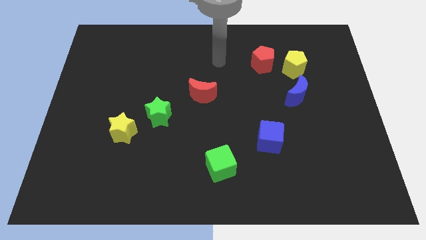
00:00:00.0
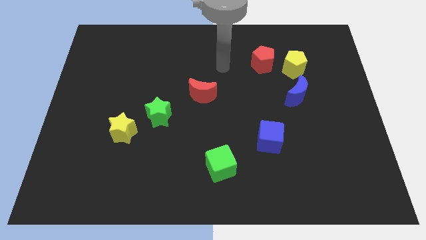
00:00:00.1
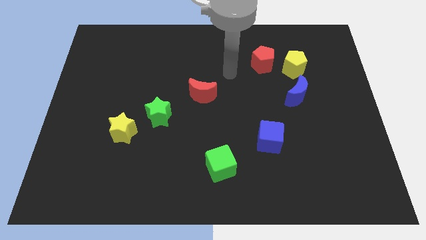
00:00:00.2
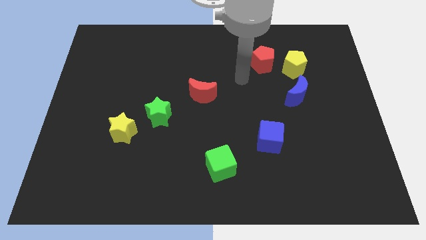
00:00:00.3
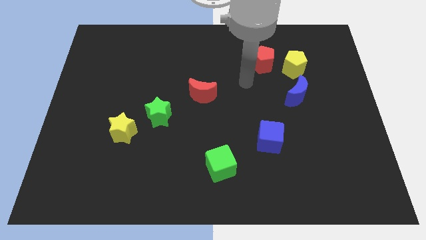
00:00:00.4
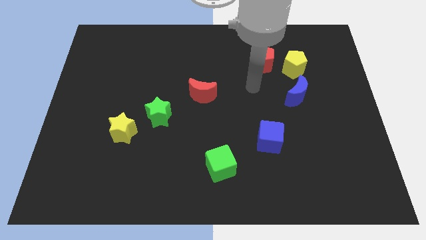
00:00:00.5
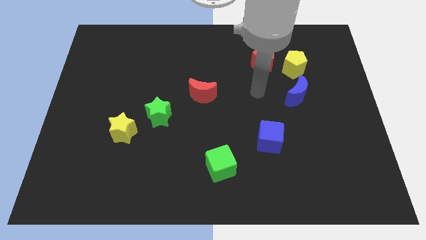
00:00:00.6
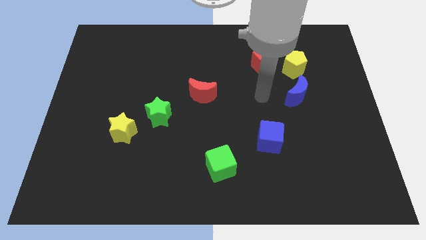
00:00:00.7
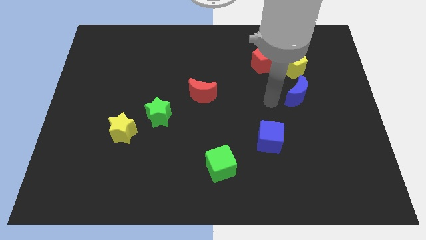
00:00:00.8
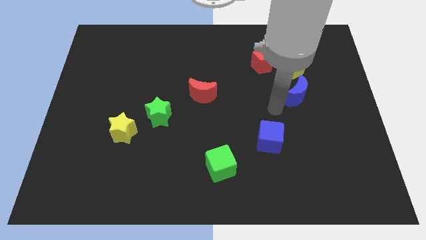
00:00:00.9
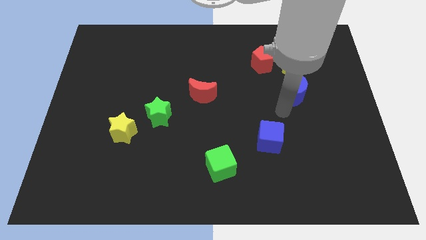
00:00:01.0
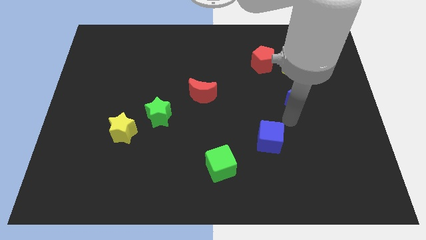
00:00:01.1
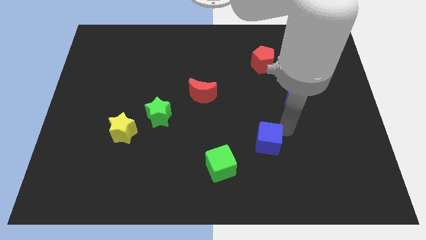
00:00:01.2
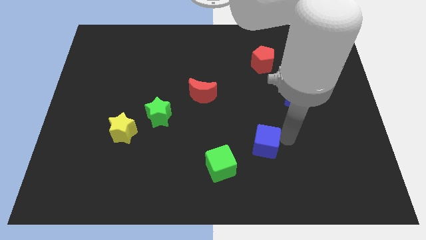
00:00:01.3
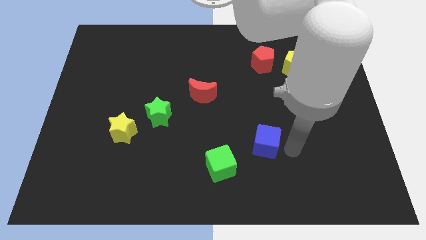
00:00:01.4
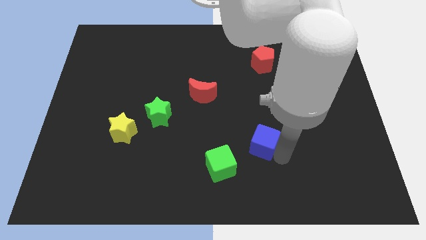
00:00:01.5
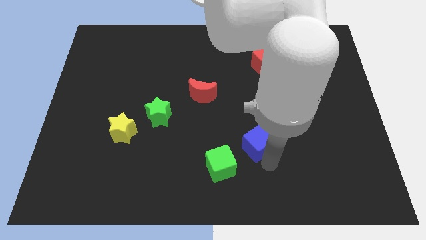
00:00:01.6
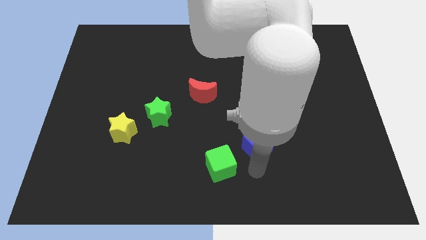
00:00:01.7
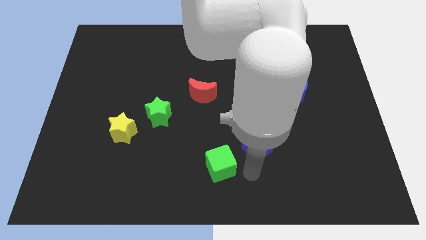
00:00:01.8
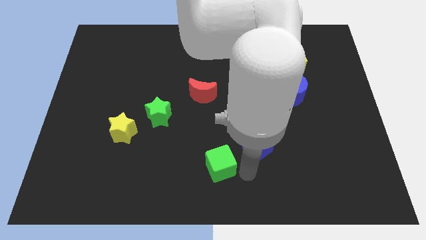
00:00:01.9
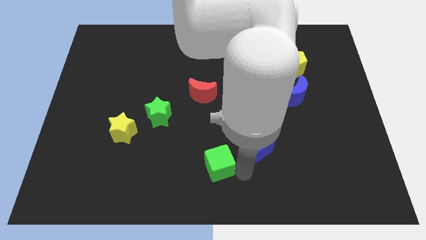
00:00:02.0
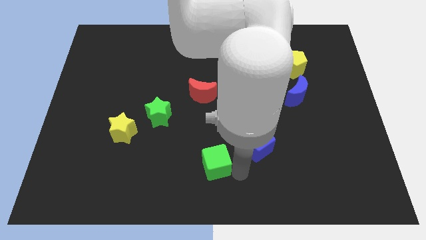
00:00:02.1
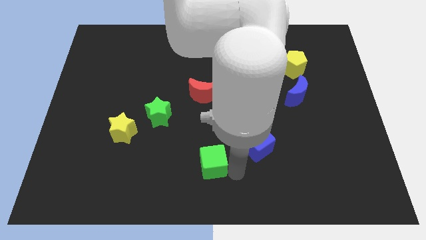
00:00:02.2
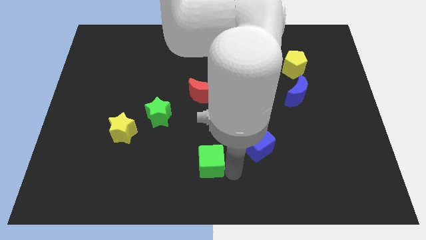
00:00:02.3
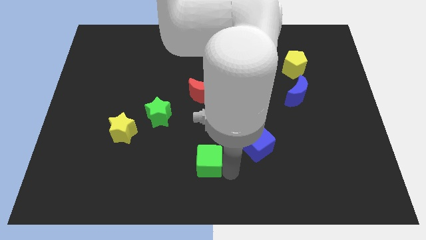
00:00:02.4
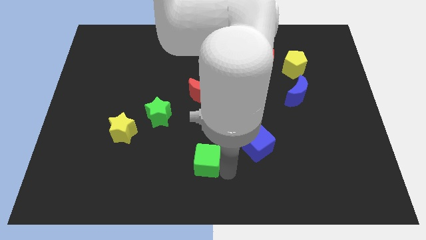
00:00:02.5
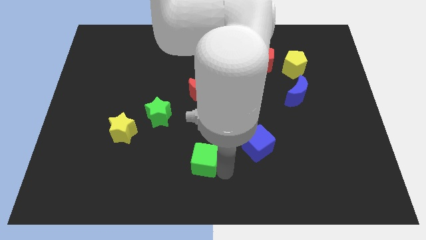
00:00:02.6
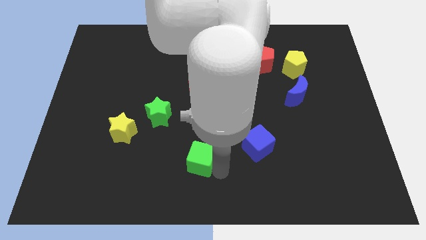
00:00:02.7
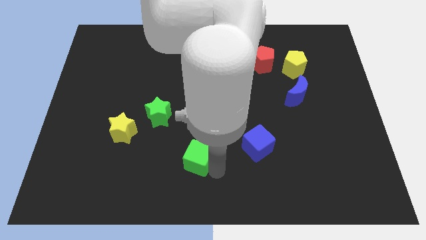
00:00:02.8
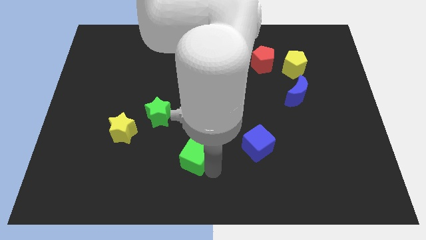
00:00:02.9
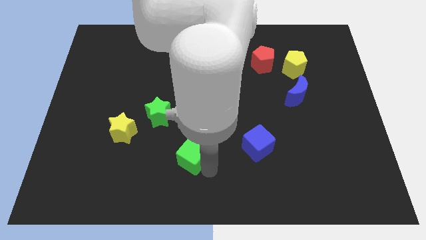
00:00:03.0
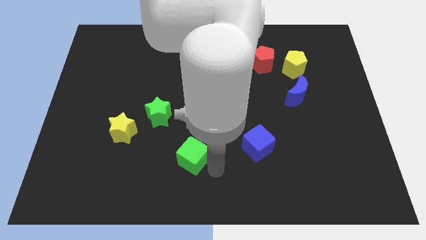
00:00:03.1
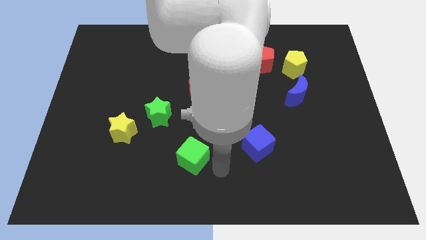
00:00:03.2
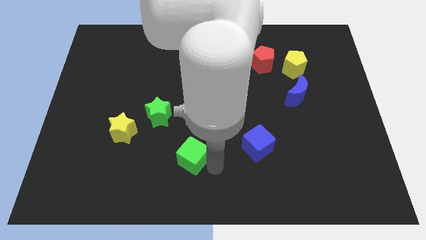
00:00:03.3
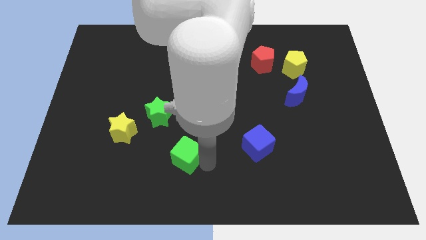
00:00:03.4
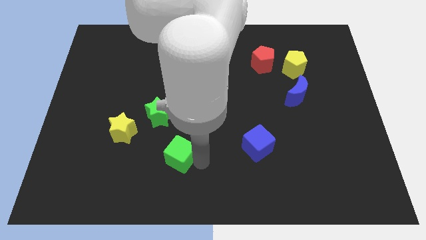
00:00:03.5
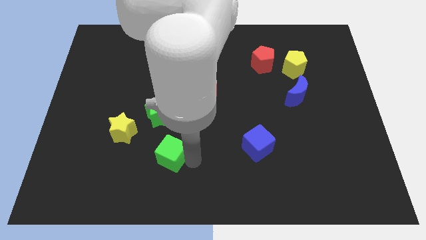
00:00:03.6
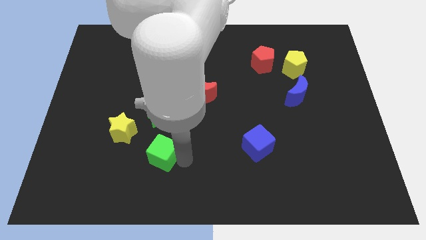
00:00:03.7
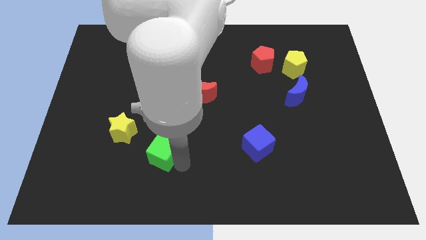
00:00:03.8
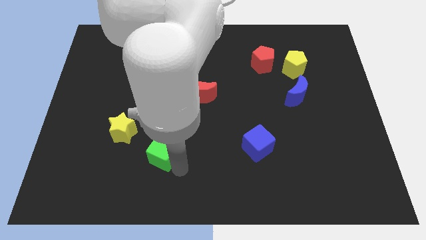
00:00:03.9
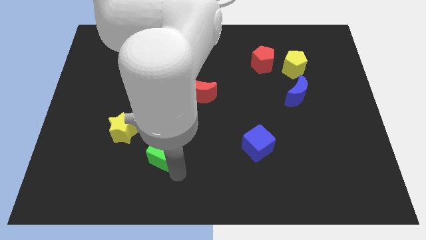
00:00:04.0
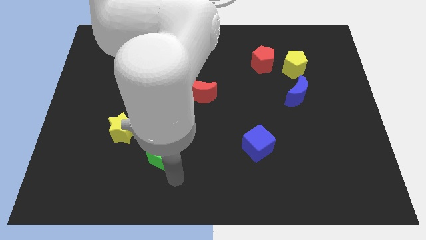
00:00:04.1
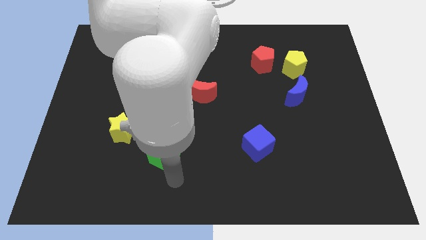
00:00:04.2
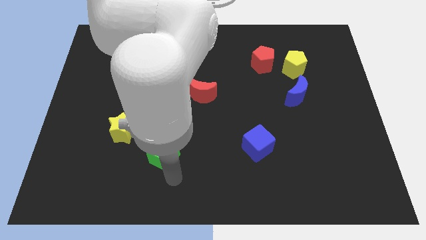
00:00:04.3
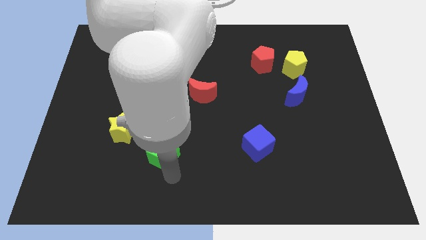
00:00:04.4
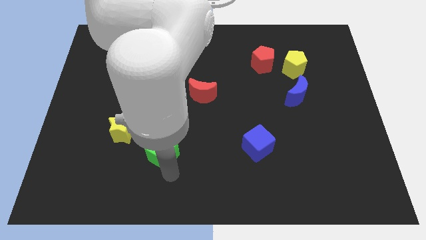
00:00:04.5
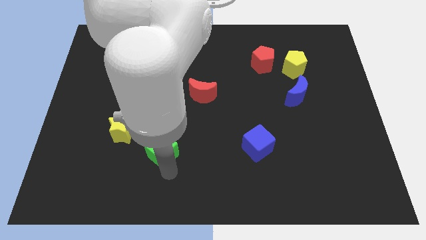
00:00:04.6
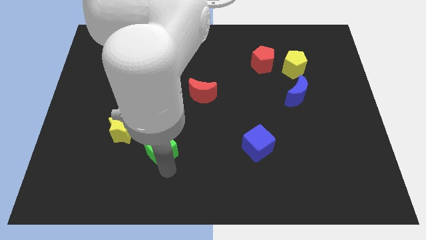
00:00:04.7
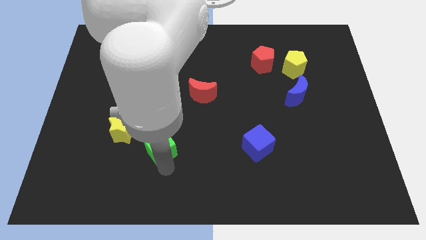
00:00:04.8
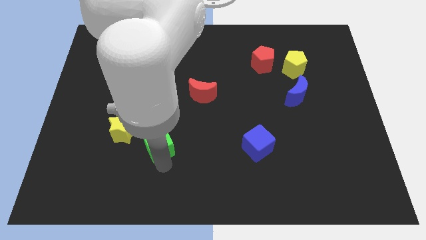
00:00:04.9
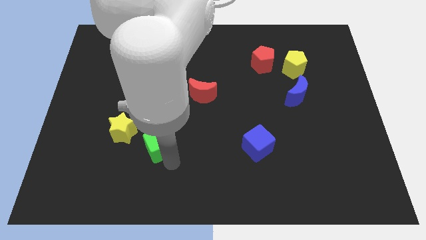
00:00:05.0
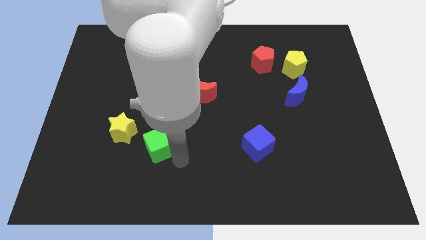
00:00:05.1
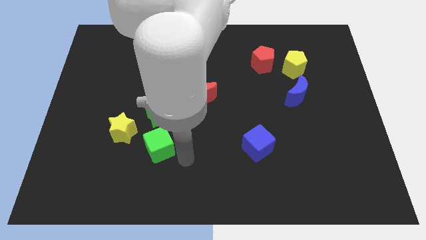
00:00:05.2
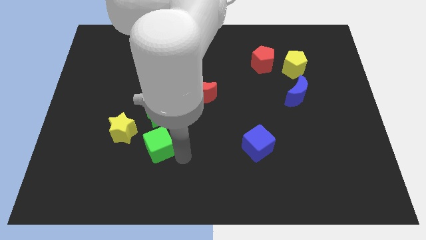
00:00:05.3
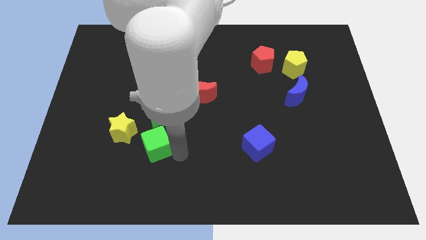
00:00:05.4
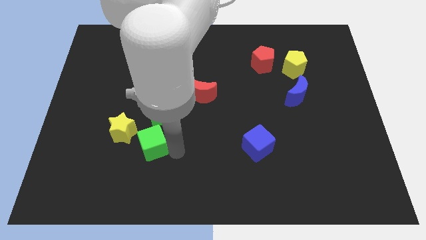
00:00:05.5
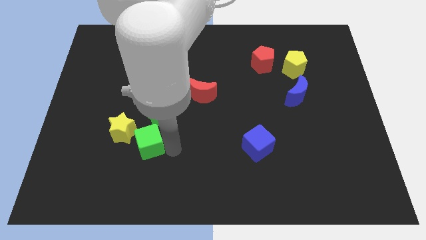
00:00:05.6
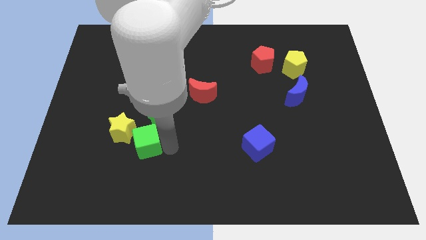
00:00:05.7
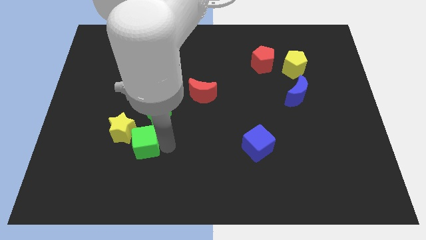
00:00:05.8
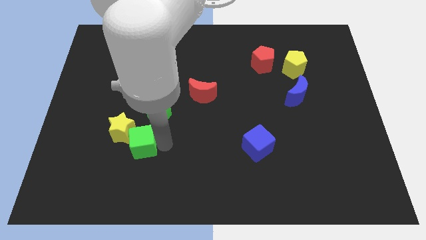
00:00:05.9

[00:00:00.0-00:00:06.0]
move the green cube to the yellow star

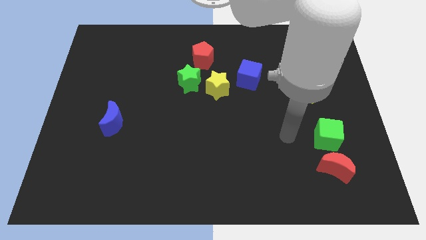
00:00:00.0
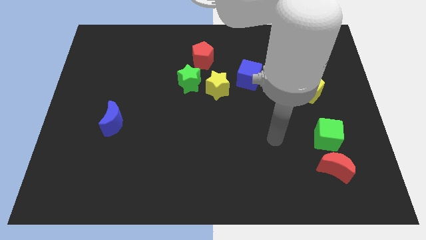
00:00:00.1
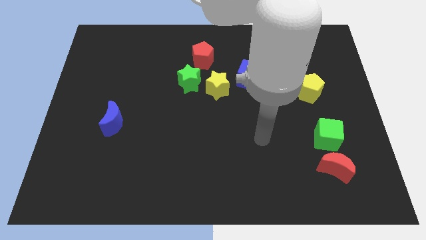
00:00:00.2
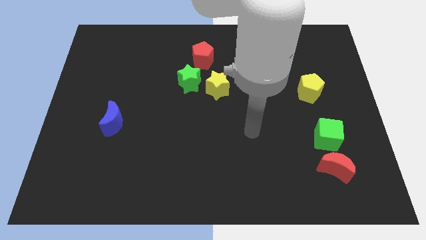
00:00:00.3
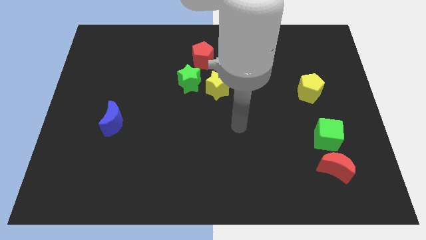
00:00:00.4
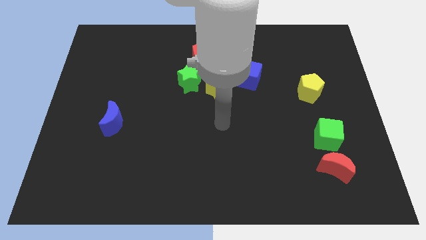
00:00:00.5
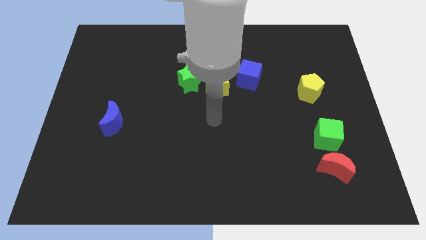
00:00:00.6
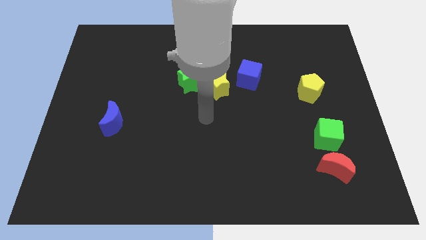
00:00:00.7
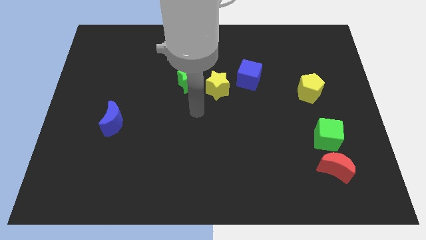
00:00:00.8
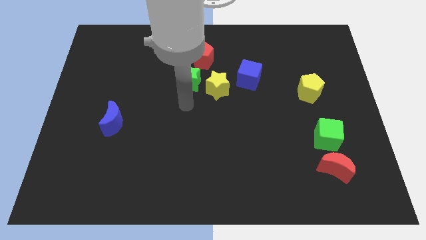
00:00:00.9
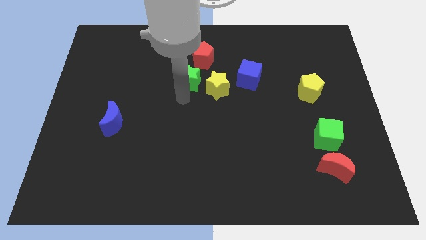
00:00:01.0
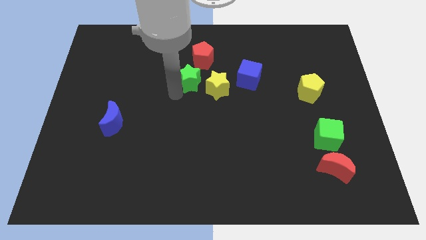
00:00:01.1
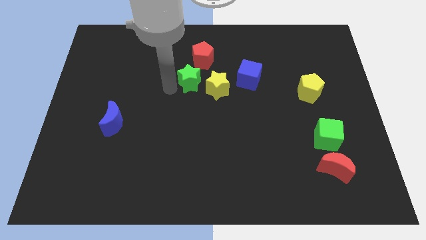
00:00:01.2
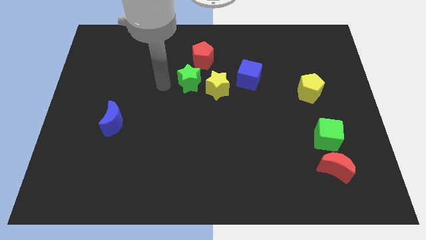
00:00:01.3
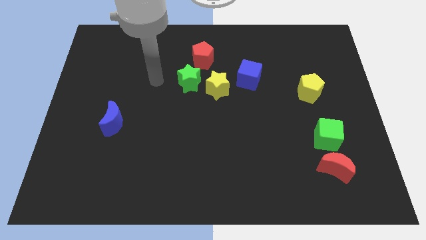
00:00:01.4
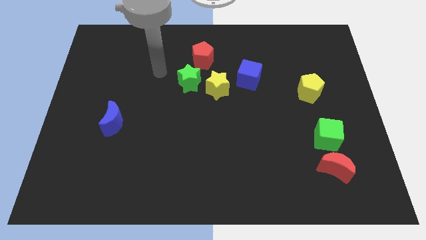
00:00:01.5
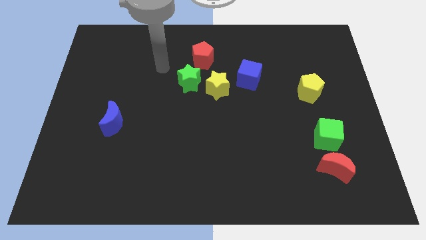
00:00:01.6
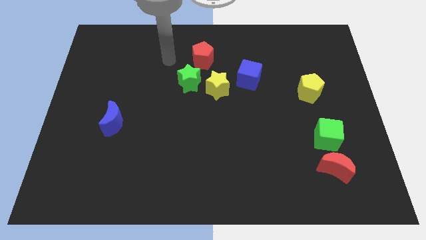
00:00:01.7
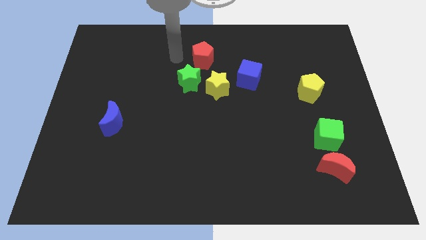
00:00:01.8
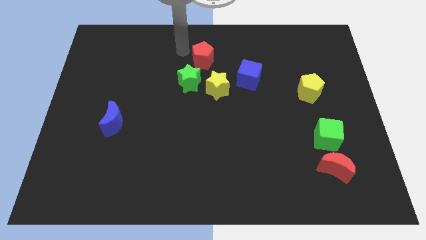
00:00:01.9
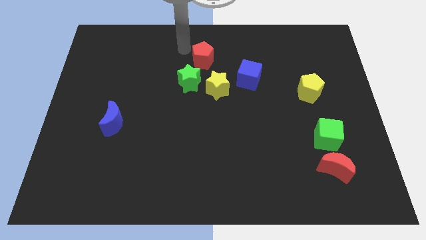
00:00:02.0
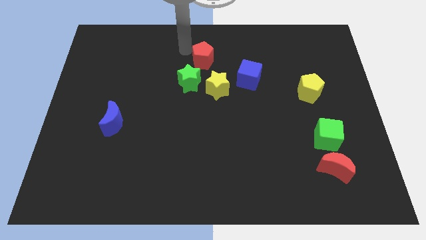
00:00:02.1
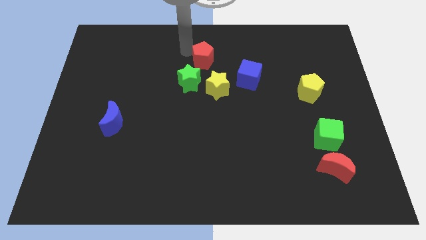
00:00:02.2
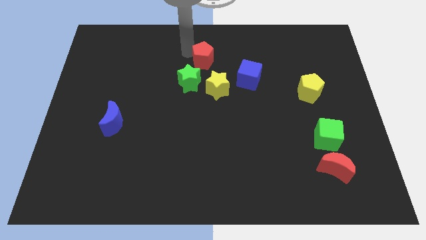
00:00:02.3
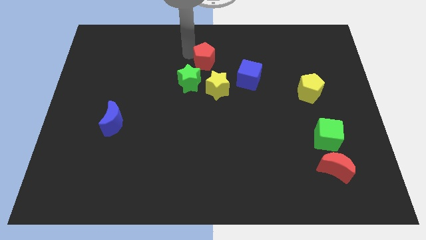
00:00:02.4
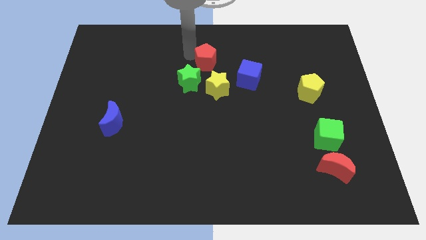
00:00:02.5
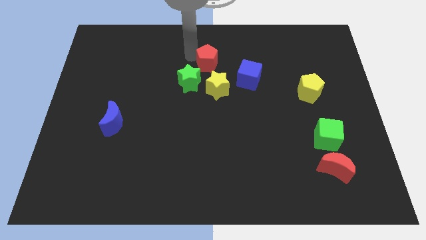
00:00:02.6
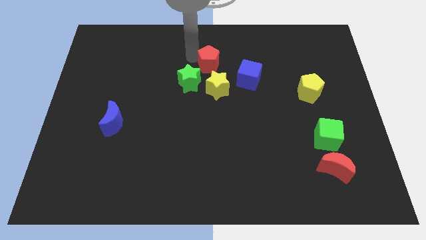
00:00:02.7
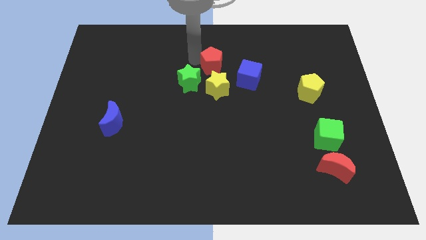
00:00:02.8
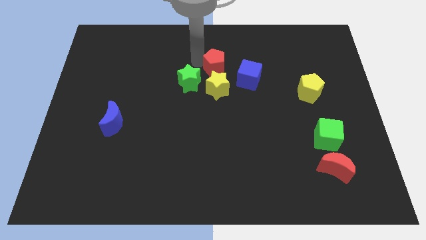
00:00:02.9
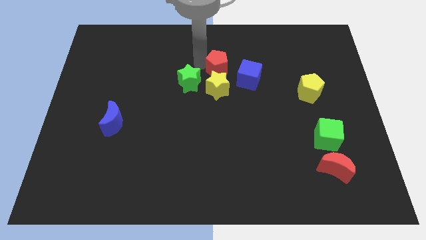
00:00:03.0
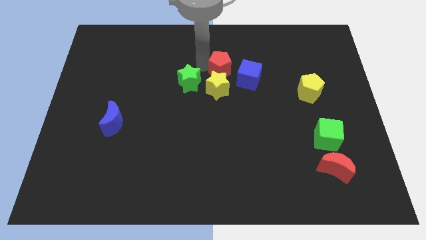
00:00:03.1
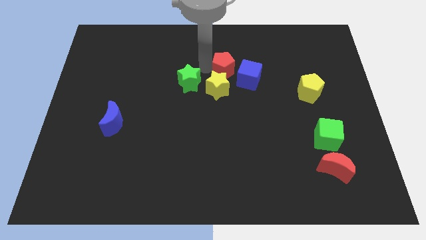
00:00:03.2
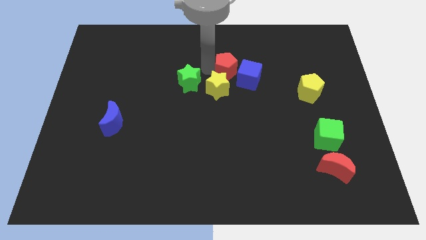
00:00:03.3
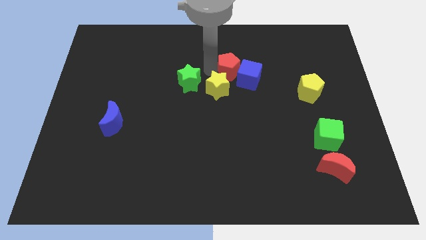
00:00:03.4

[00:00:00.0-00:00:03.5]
slide the red pentagon towards the blue cube
